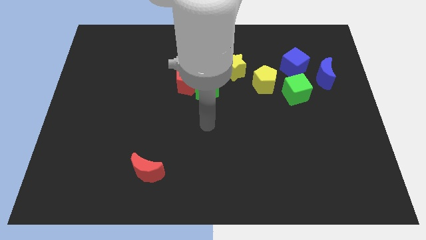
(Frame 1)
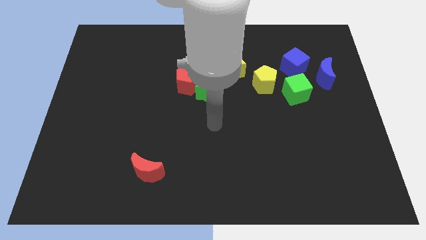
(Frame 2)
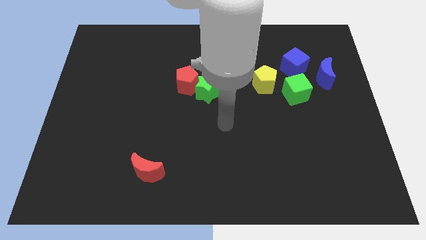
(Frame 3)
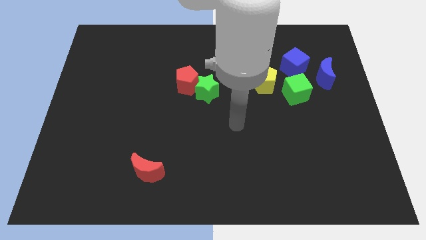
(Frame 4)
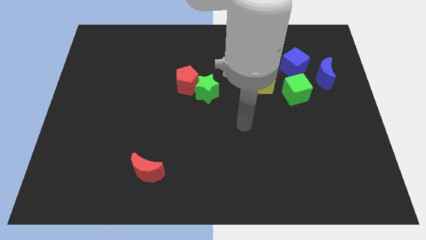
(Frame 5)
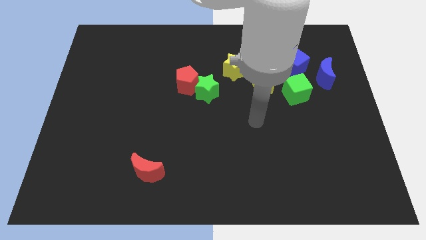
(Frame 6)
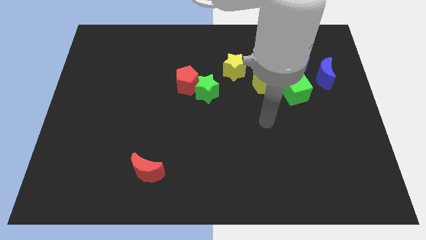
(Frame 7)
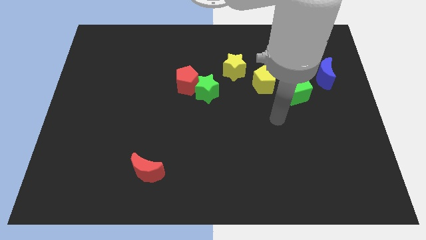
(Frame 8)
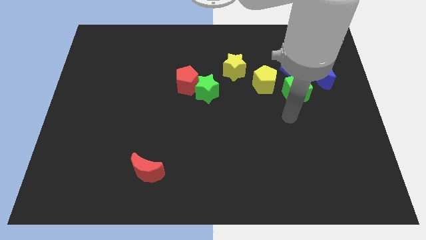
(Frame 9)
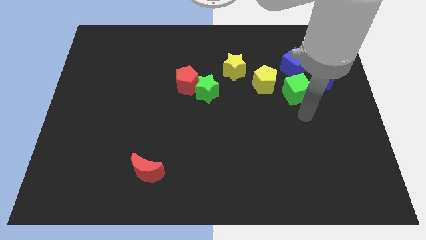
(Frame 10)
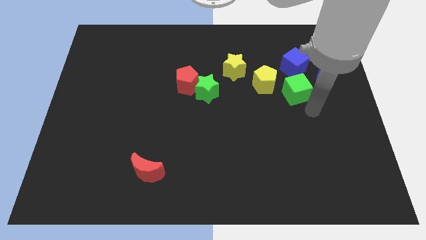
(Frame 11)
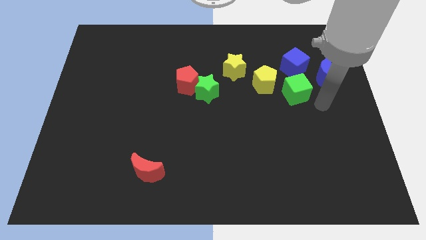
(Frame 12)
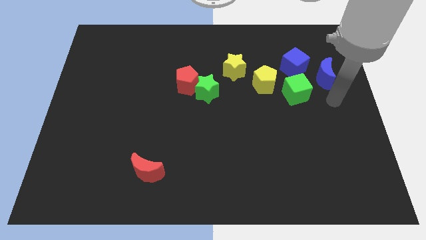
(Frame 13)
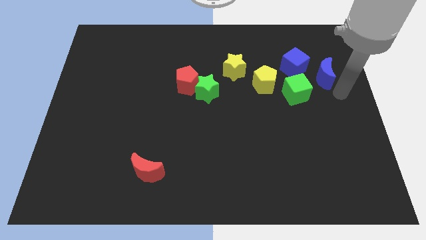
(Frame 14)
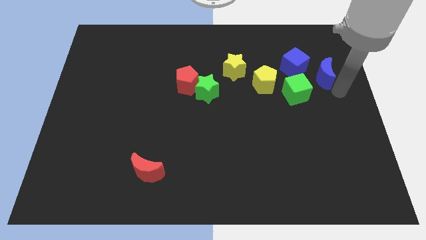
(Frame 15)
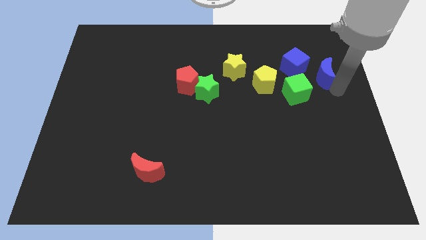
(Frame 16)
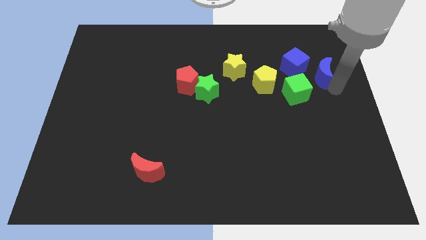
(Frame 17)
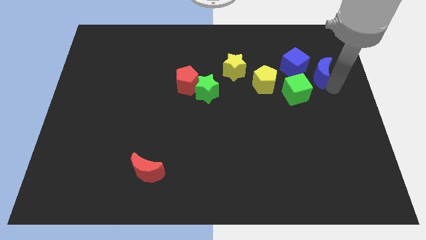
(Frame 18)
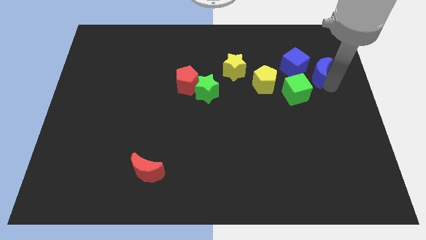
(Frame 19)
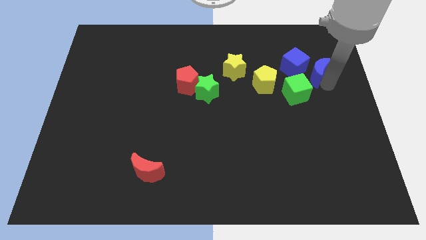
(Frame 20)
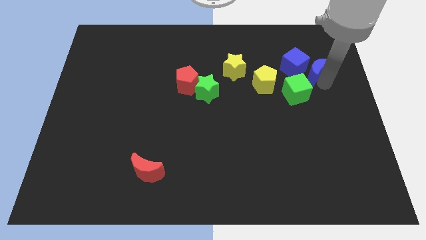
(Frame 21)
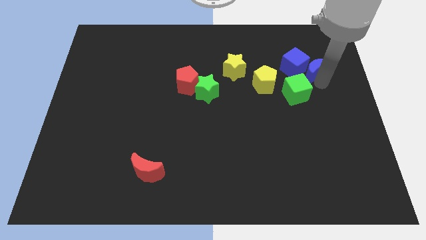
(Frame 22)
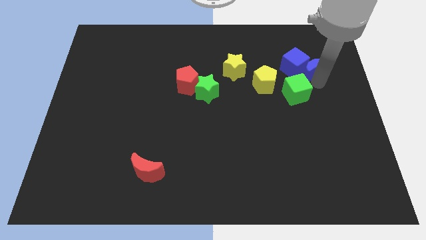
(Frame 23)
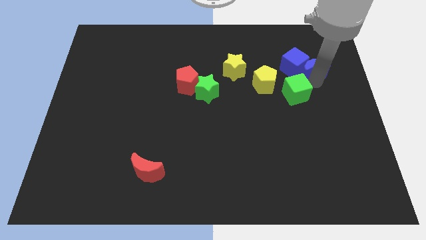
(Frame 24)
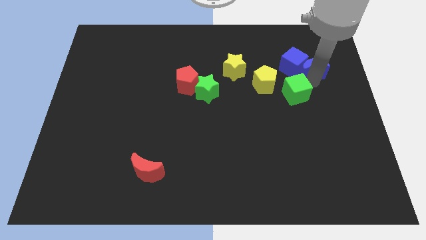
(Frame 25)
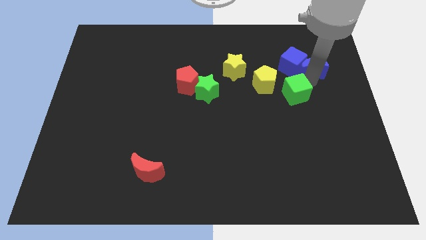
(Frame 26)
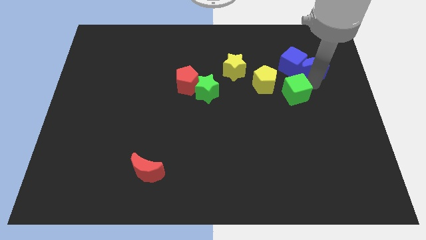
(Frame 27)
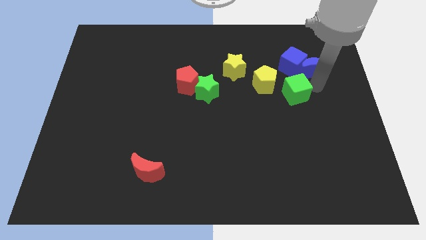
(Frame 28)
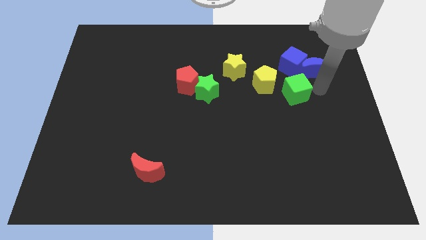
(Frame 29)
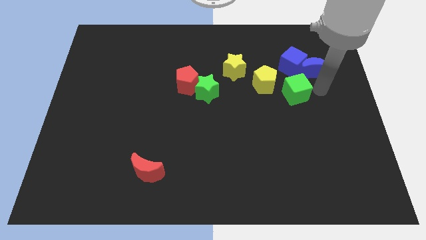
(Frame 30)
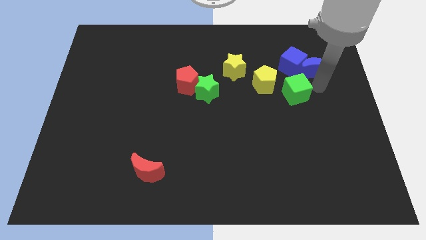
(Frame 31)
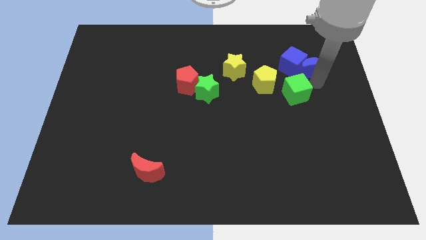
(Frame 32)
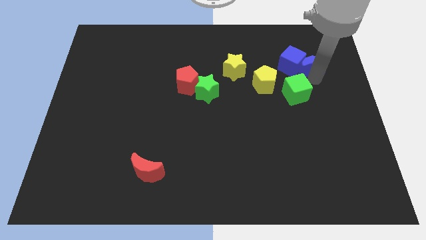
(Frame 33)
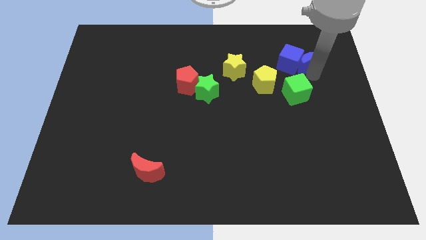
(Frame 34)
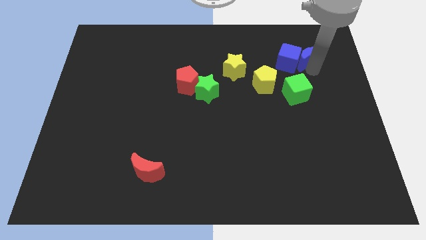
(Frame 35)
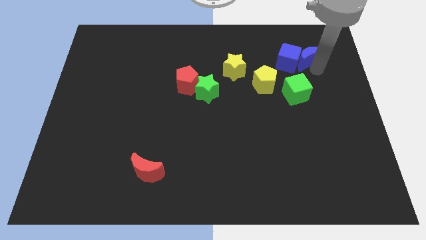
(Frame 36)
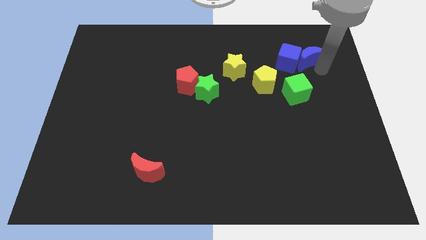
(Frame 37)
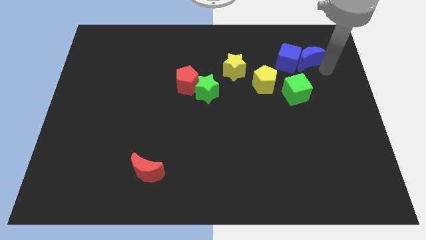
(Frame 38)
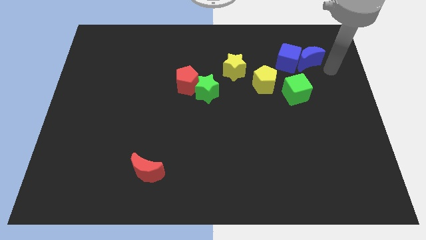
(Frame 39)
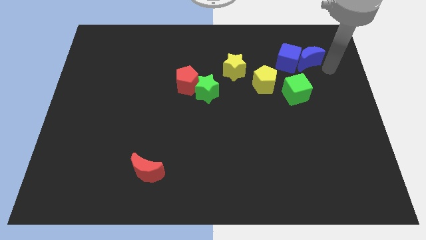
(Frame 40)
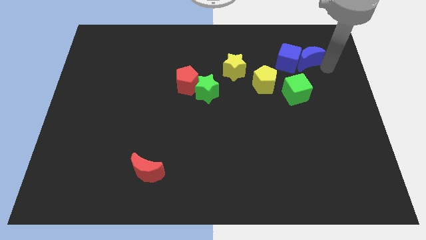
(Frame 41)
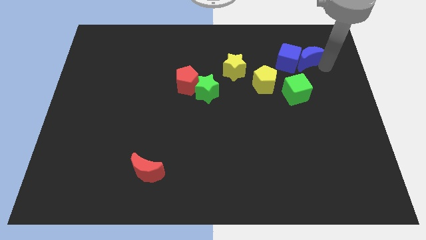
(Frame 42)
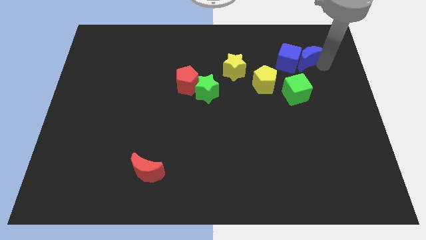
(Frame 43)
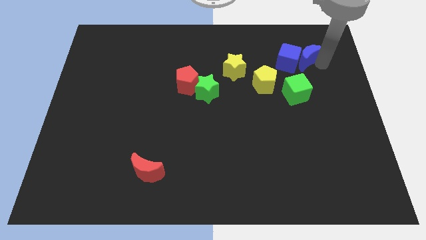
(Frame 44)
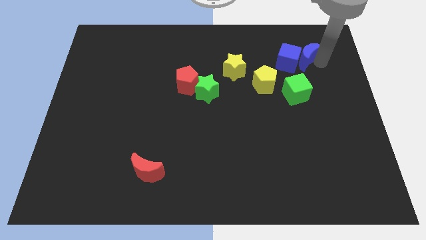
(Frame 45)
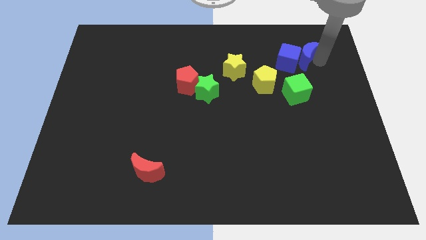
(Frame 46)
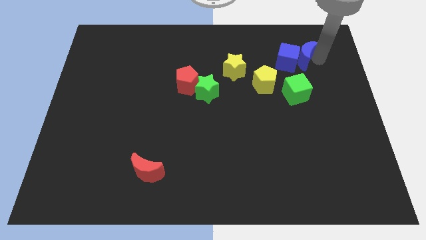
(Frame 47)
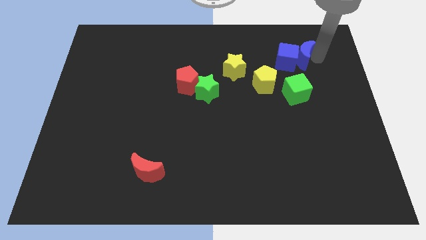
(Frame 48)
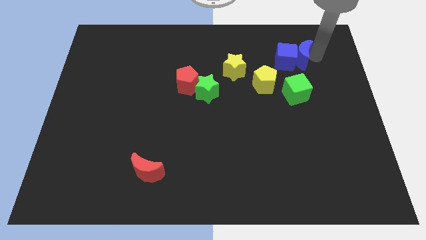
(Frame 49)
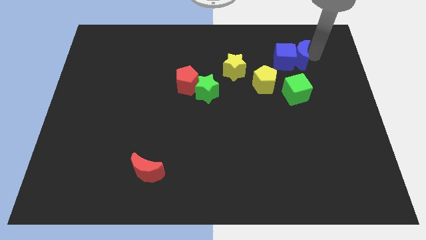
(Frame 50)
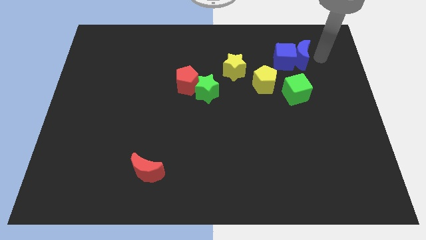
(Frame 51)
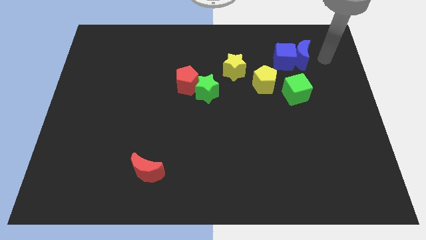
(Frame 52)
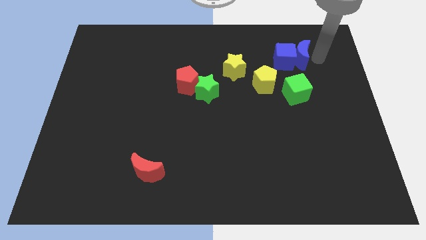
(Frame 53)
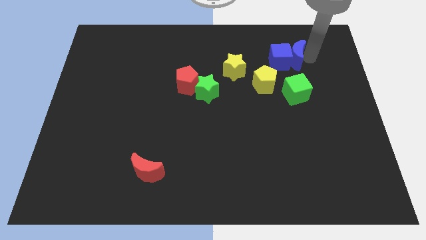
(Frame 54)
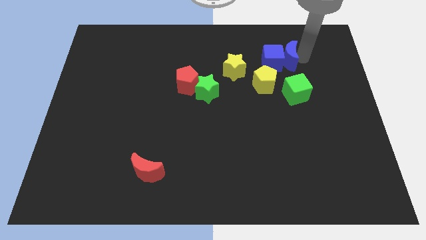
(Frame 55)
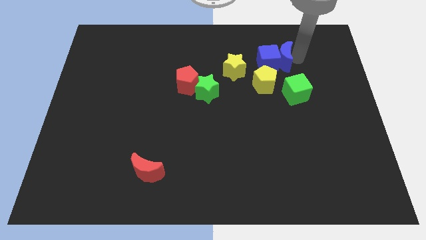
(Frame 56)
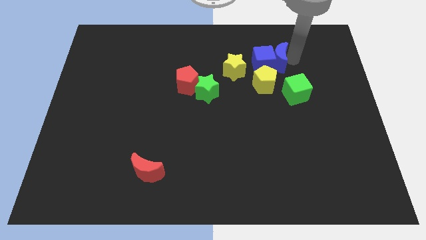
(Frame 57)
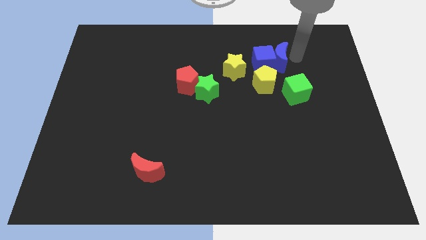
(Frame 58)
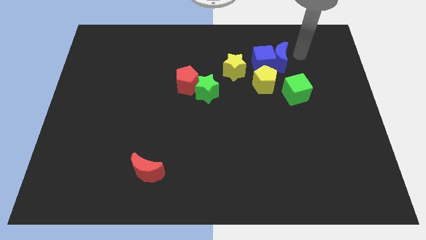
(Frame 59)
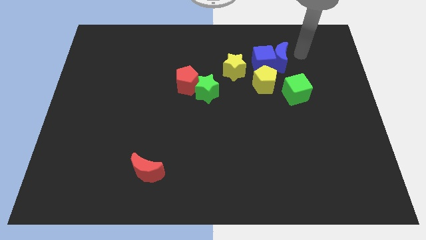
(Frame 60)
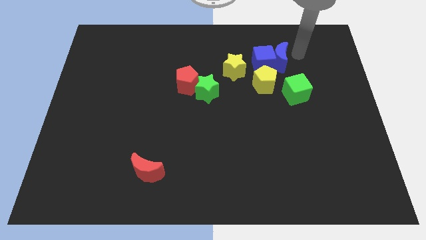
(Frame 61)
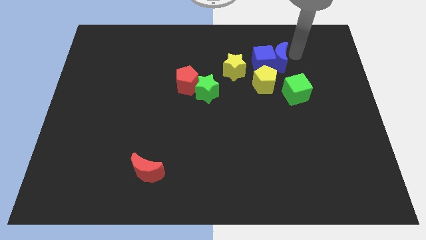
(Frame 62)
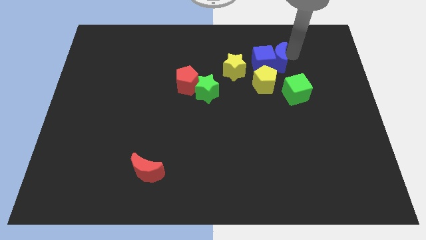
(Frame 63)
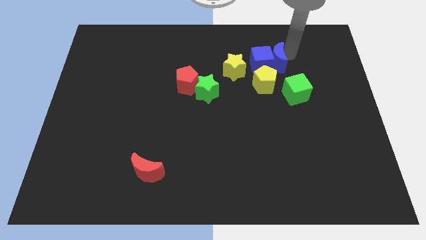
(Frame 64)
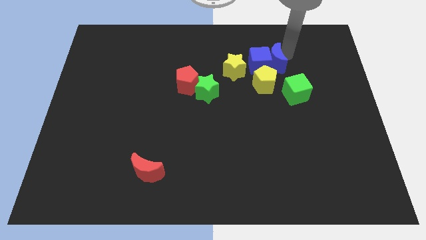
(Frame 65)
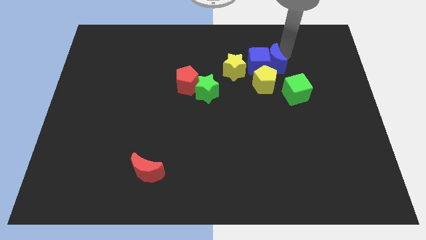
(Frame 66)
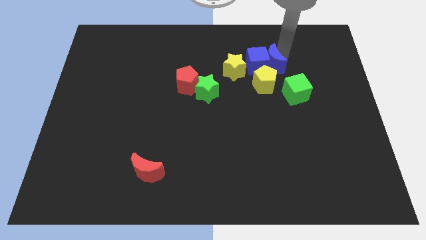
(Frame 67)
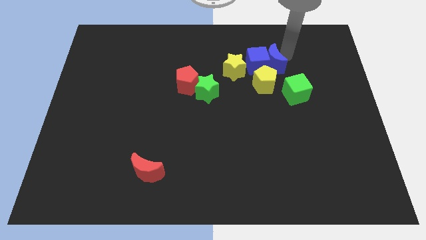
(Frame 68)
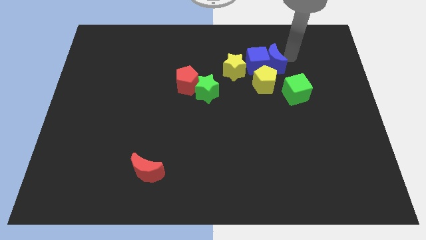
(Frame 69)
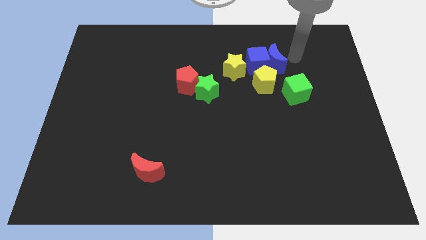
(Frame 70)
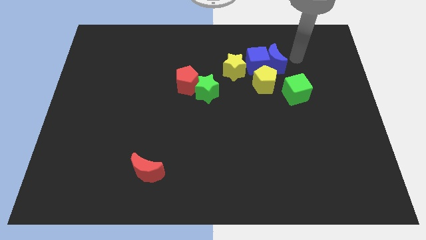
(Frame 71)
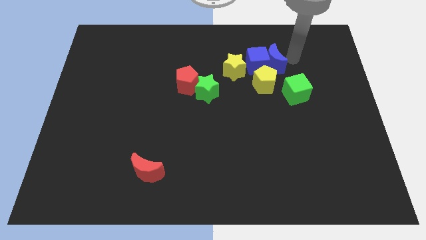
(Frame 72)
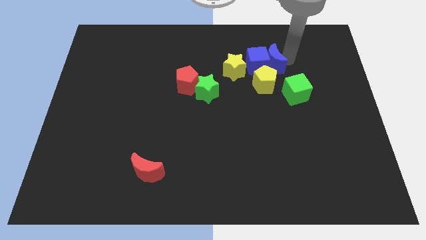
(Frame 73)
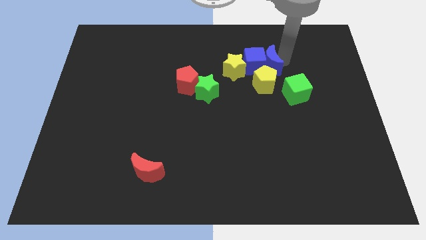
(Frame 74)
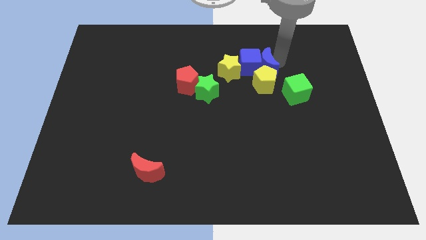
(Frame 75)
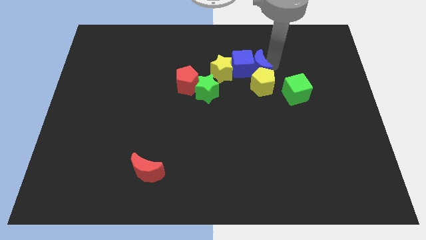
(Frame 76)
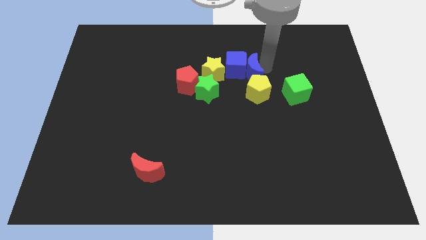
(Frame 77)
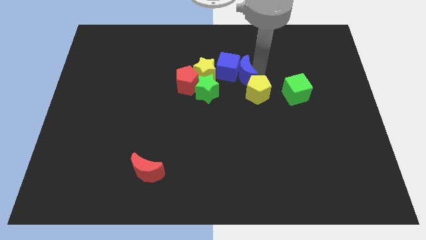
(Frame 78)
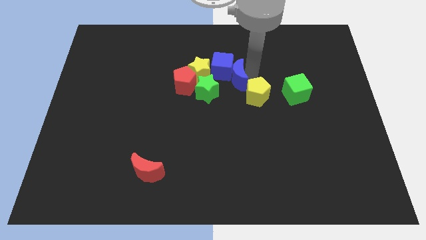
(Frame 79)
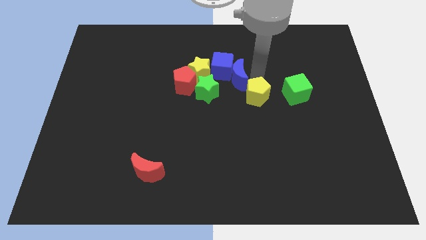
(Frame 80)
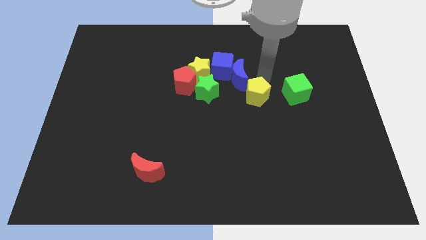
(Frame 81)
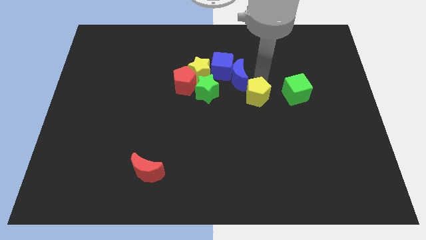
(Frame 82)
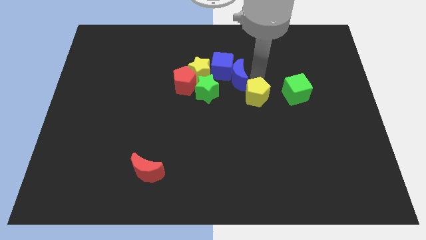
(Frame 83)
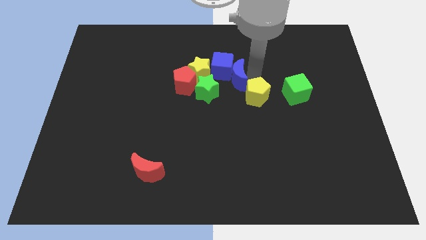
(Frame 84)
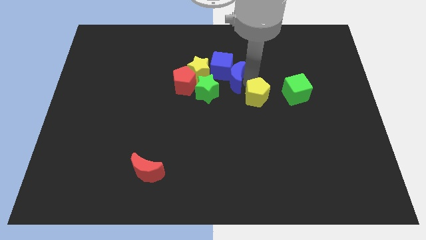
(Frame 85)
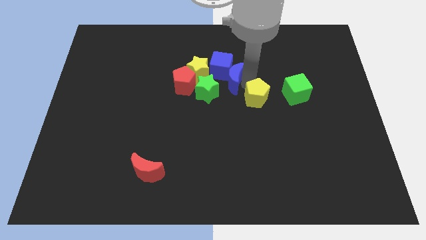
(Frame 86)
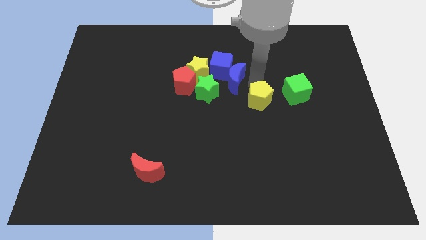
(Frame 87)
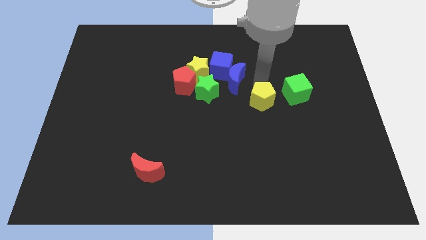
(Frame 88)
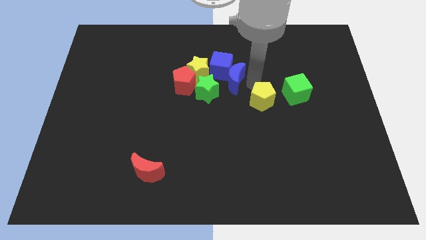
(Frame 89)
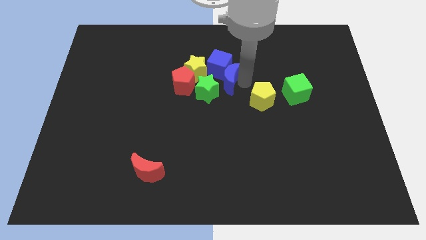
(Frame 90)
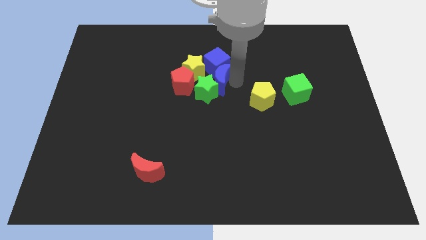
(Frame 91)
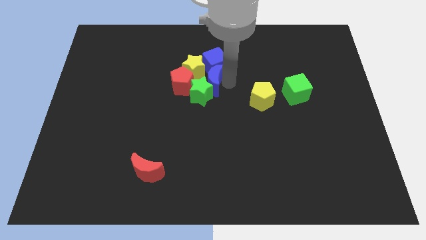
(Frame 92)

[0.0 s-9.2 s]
put the blue moon towards the yellow star
